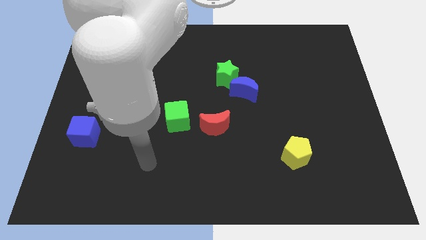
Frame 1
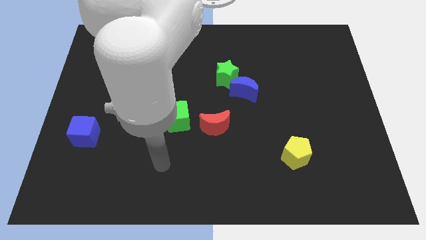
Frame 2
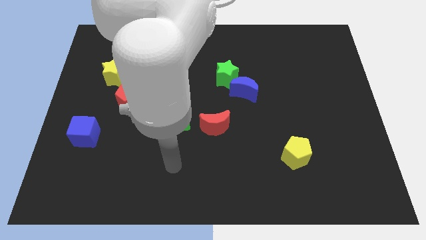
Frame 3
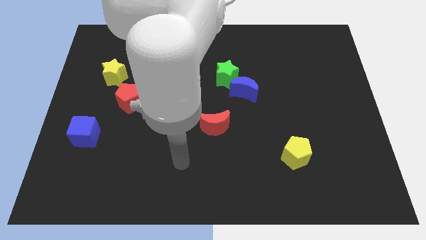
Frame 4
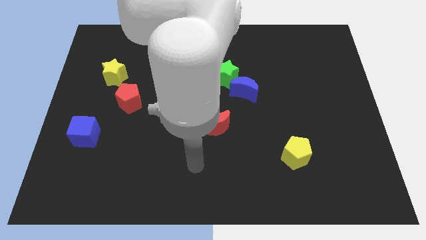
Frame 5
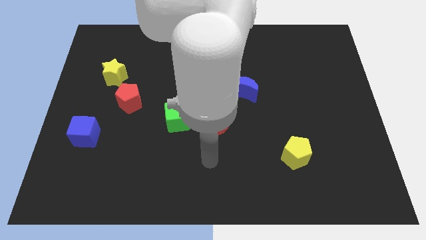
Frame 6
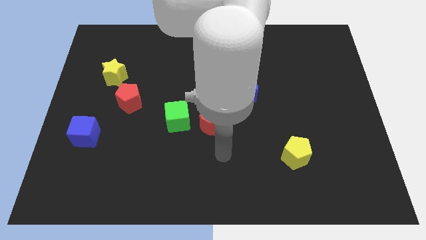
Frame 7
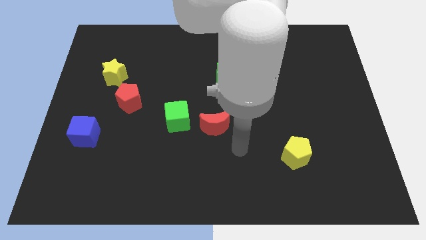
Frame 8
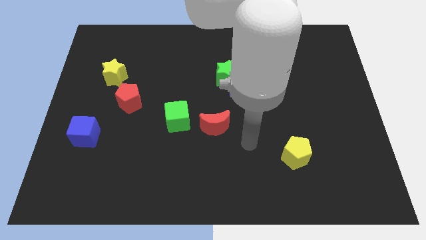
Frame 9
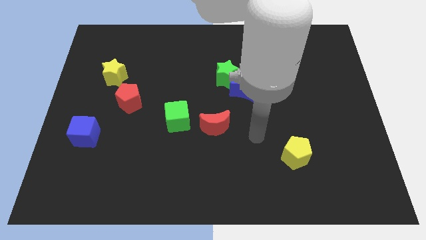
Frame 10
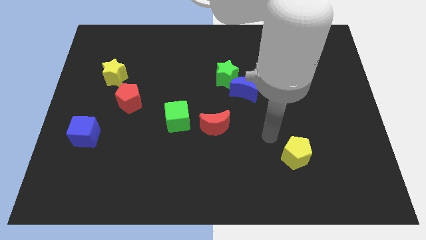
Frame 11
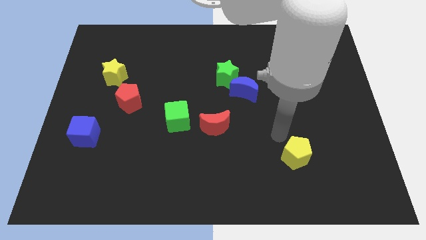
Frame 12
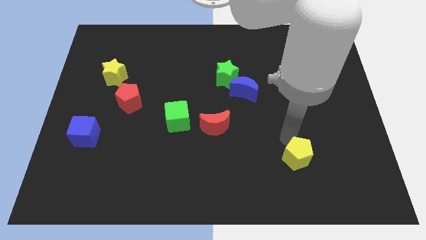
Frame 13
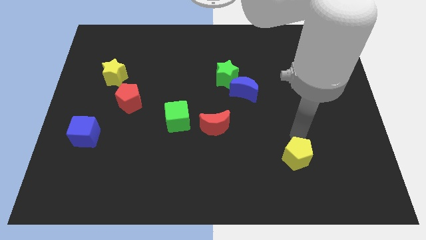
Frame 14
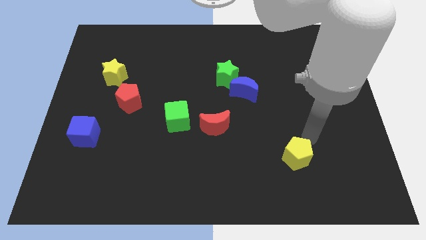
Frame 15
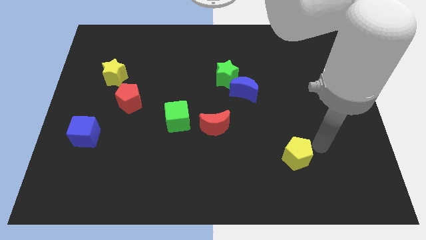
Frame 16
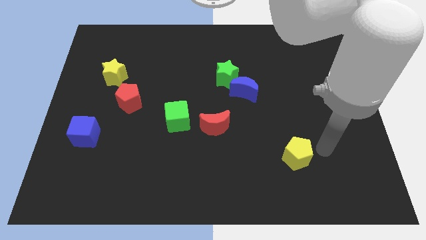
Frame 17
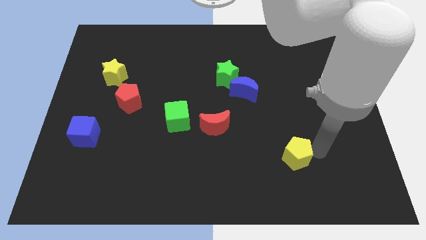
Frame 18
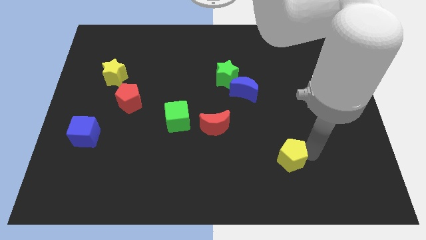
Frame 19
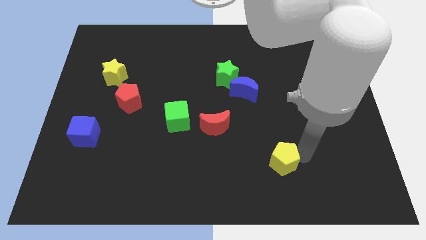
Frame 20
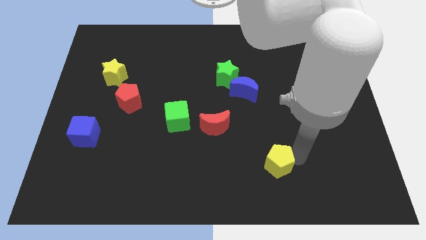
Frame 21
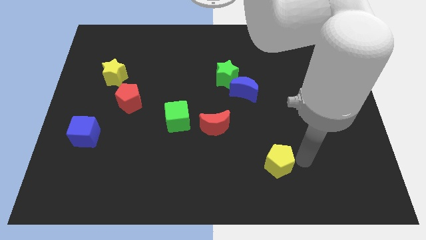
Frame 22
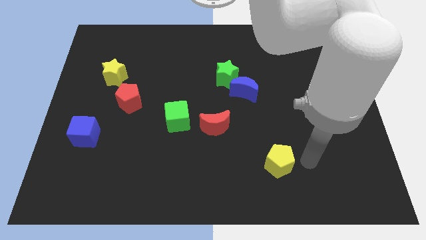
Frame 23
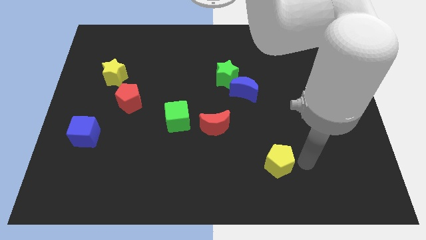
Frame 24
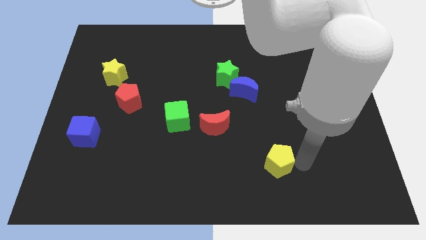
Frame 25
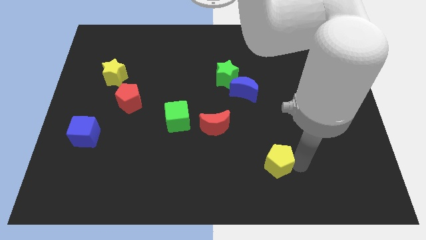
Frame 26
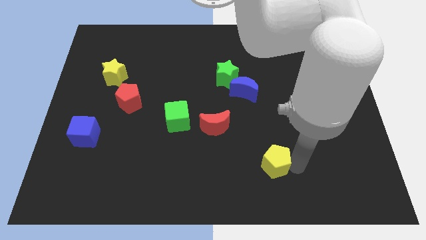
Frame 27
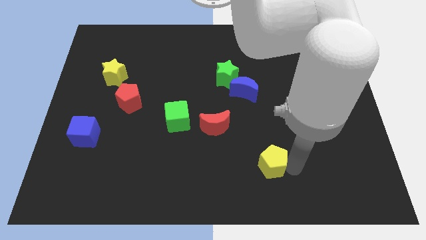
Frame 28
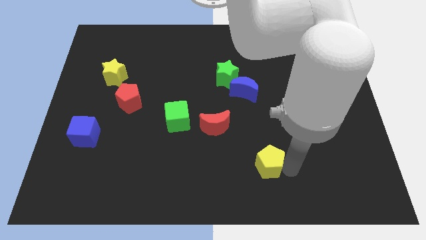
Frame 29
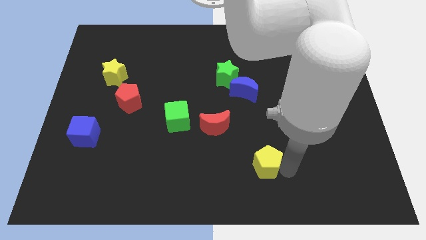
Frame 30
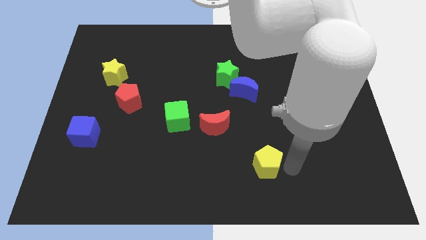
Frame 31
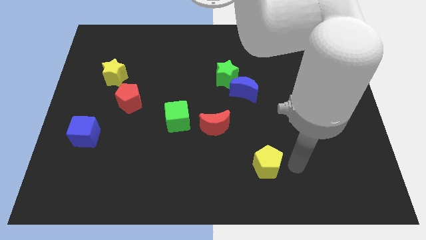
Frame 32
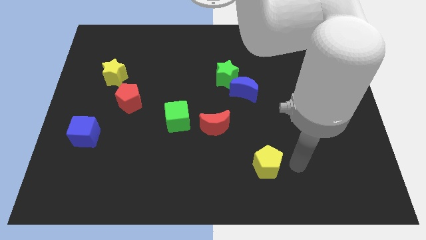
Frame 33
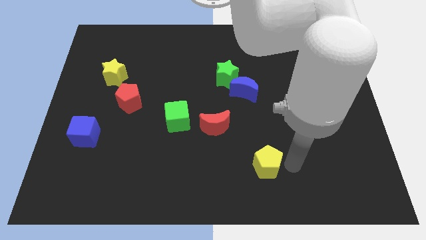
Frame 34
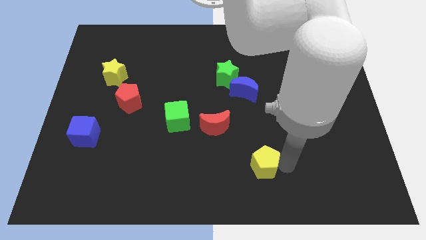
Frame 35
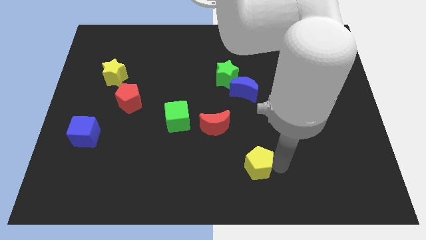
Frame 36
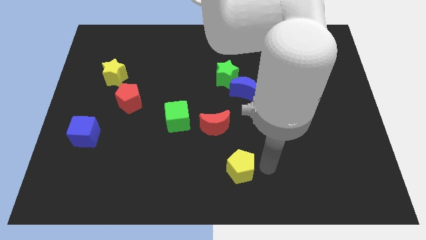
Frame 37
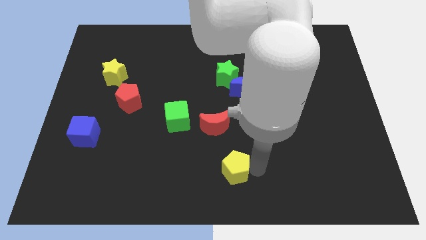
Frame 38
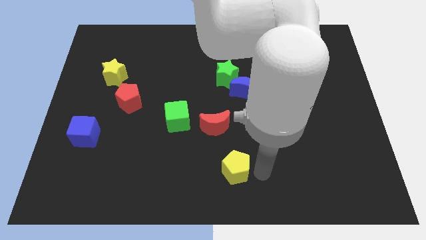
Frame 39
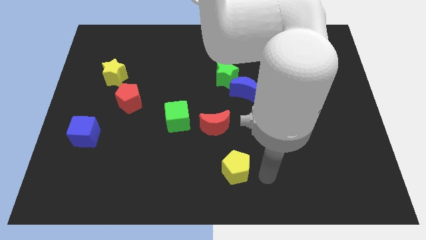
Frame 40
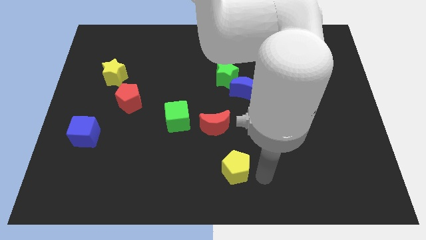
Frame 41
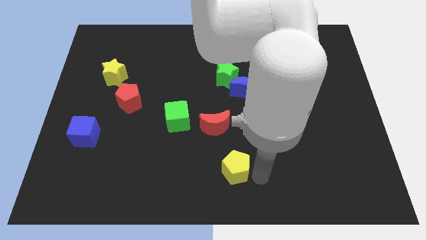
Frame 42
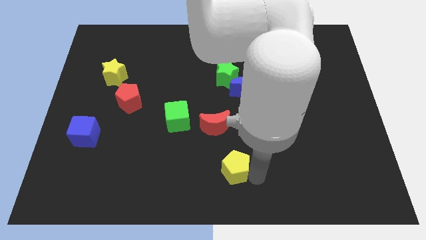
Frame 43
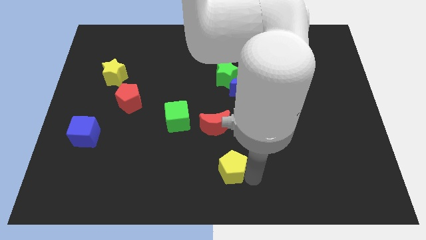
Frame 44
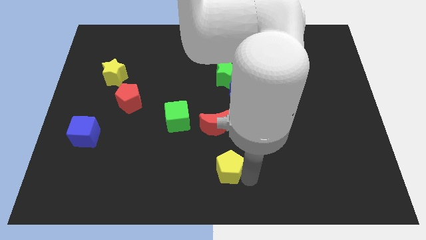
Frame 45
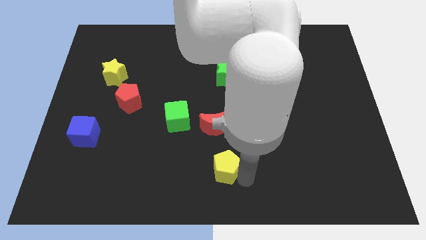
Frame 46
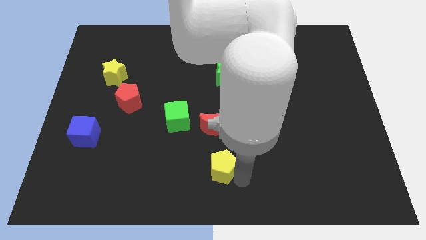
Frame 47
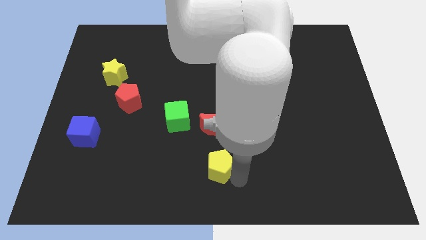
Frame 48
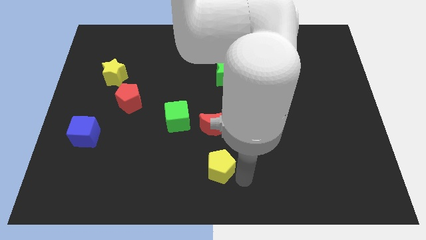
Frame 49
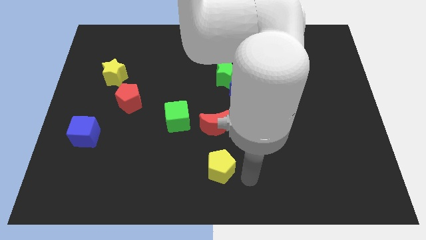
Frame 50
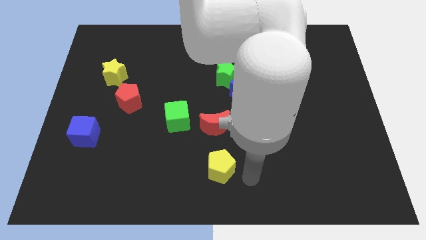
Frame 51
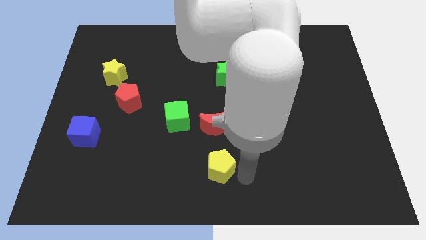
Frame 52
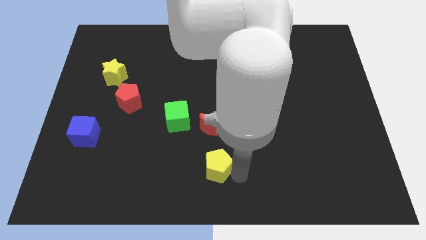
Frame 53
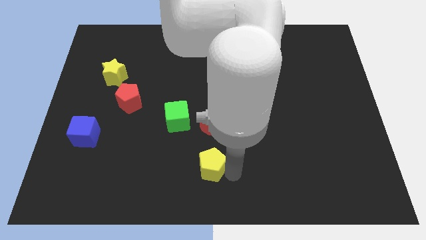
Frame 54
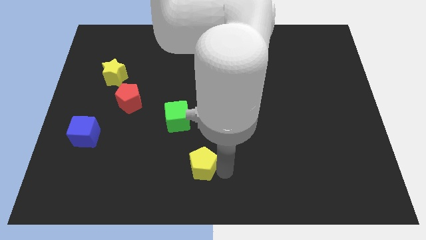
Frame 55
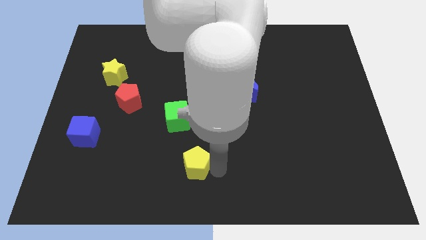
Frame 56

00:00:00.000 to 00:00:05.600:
move the yellow pentagon left

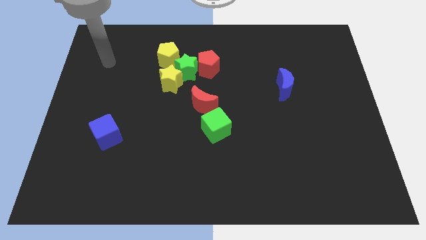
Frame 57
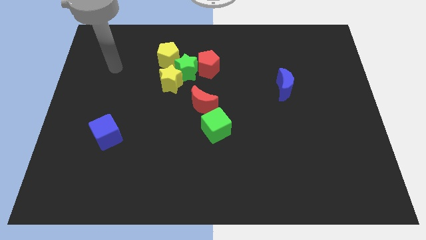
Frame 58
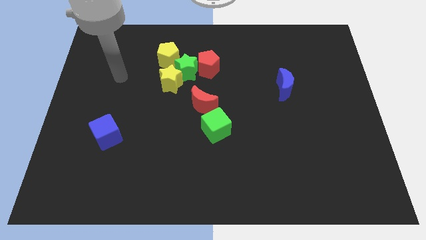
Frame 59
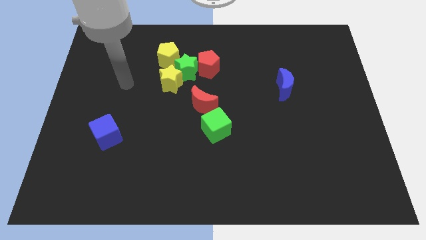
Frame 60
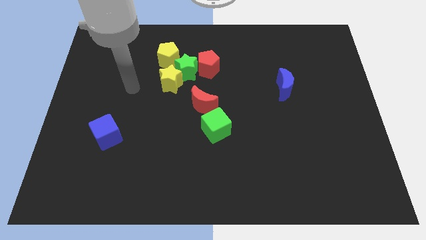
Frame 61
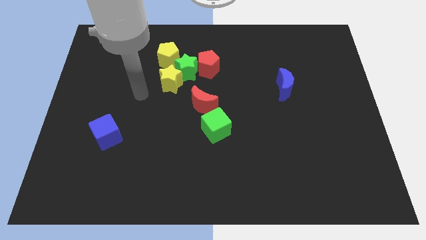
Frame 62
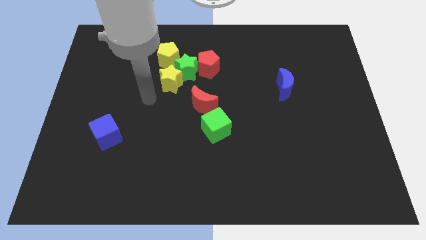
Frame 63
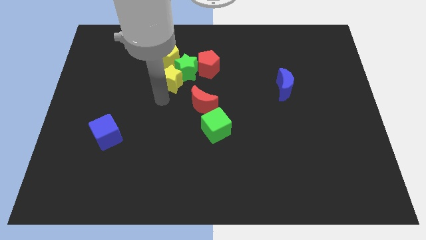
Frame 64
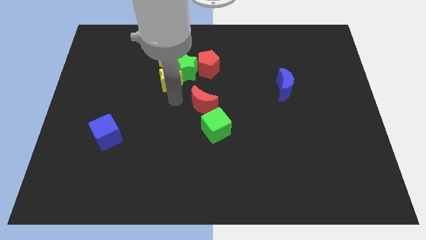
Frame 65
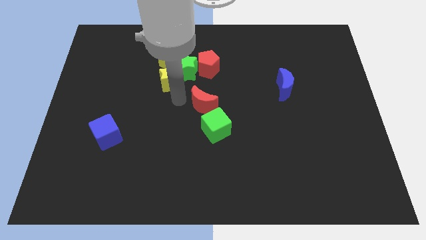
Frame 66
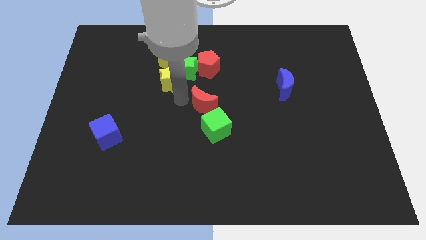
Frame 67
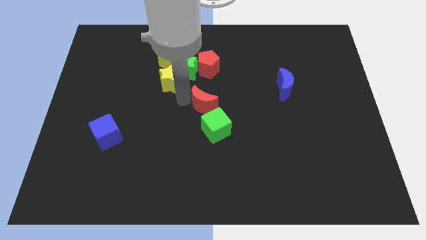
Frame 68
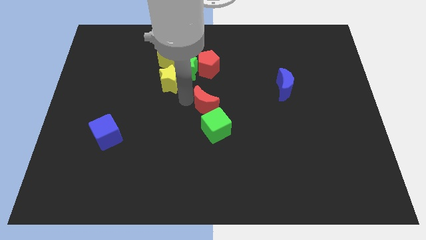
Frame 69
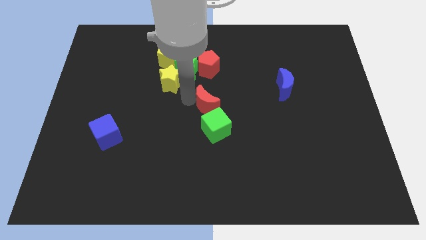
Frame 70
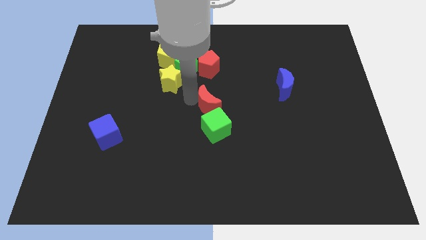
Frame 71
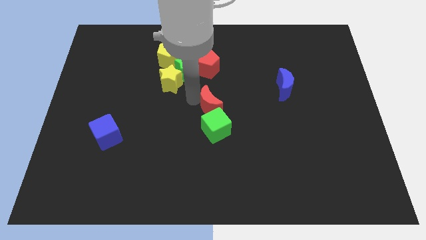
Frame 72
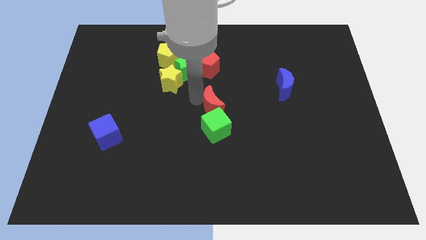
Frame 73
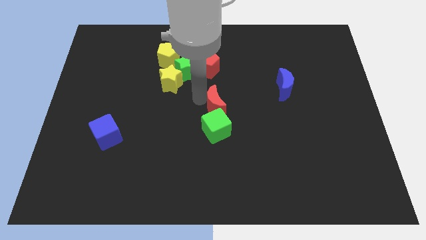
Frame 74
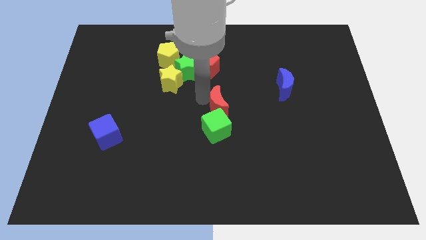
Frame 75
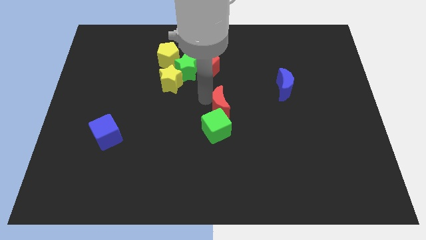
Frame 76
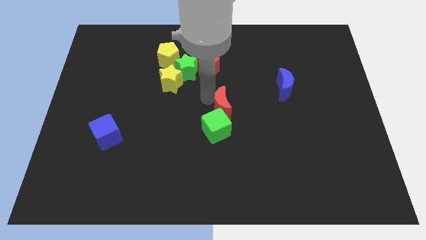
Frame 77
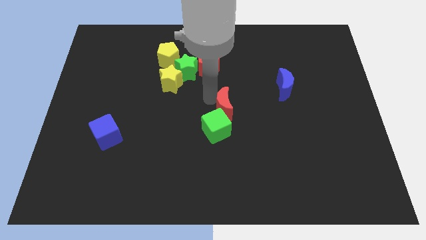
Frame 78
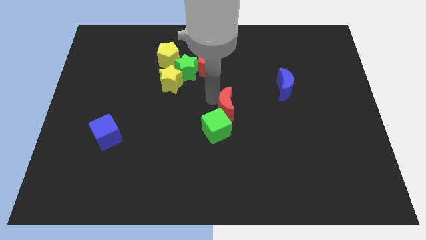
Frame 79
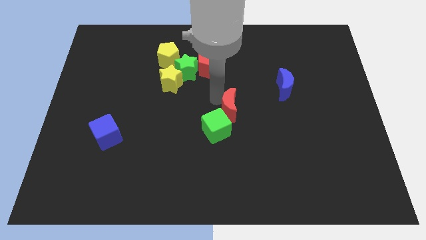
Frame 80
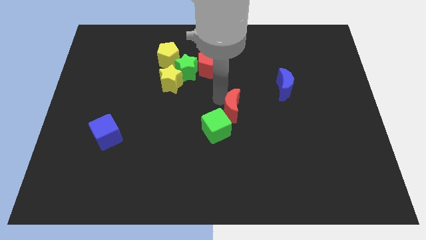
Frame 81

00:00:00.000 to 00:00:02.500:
push the red moon slightly right
